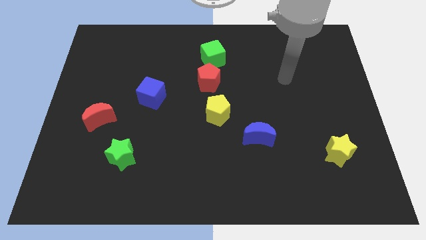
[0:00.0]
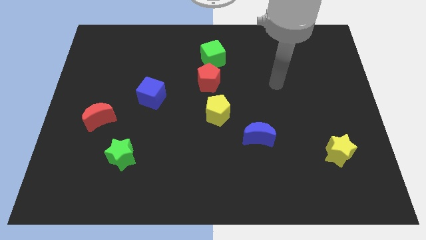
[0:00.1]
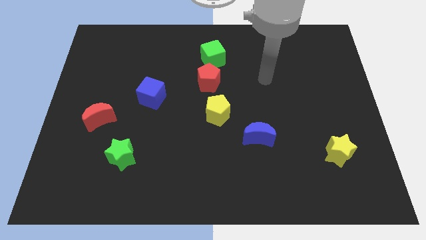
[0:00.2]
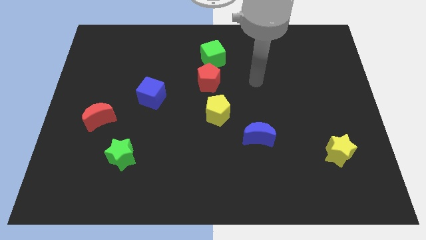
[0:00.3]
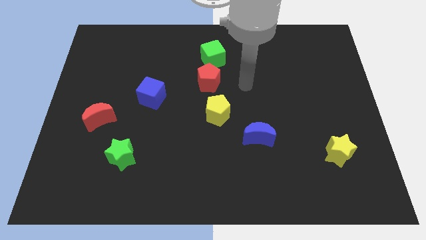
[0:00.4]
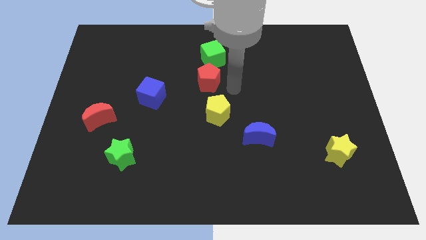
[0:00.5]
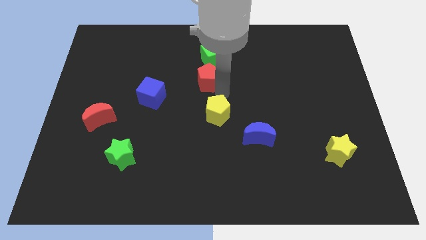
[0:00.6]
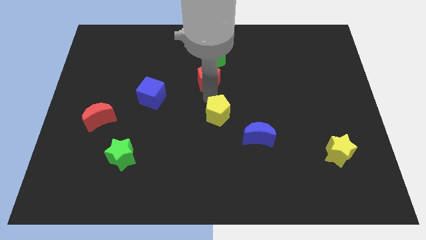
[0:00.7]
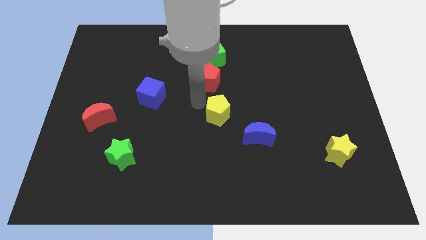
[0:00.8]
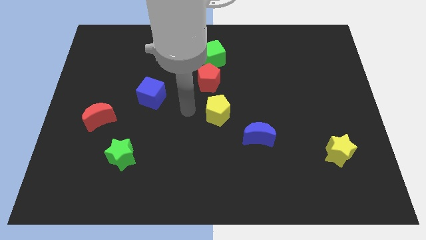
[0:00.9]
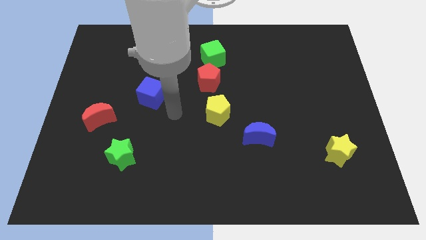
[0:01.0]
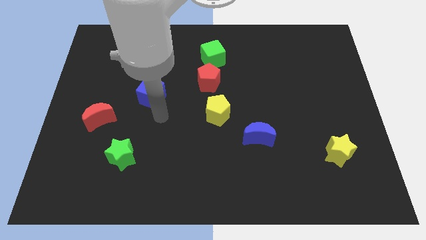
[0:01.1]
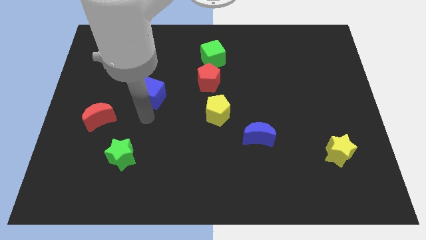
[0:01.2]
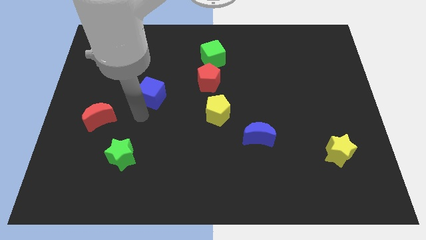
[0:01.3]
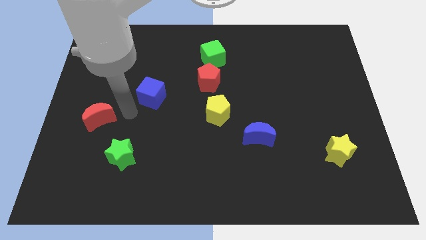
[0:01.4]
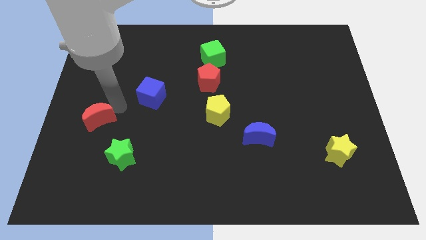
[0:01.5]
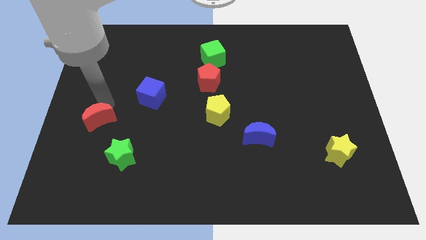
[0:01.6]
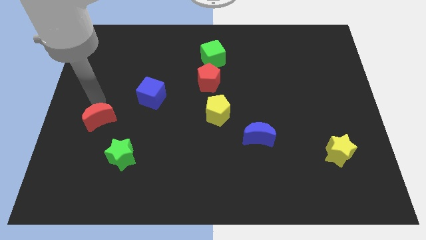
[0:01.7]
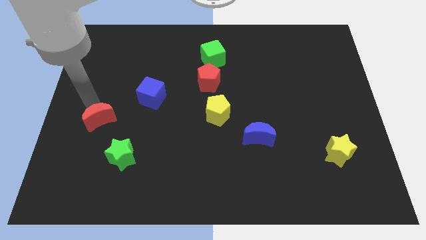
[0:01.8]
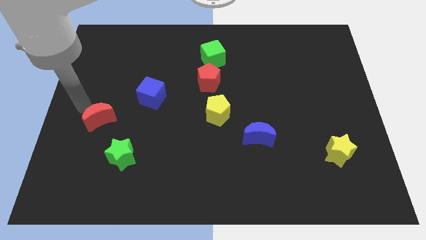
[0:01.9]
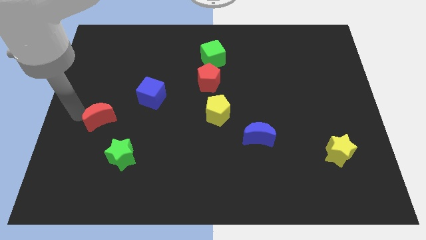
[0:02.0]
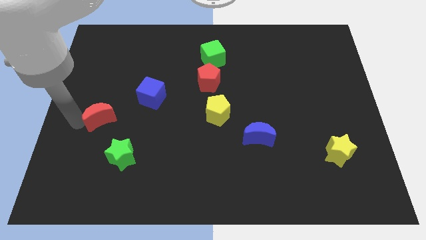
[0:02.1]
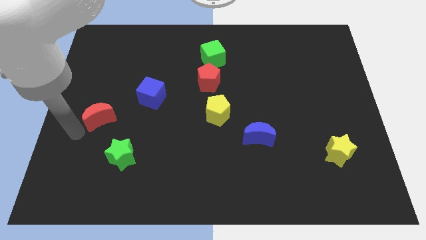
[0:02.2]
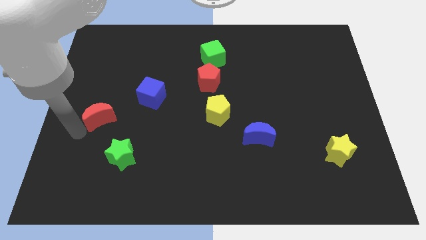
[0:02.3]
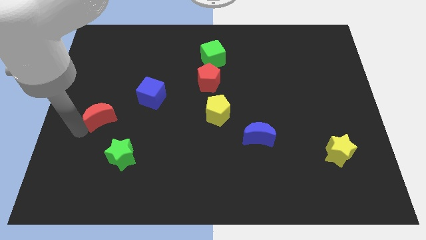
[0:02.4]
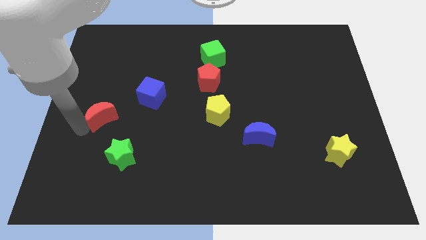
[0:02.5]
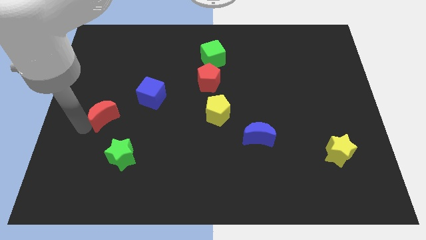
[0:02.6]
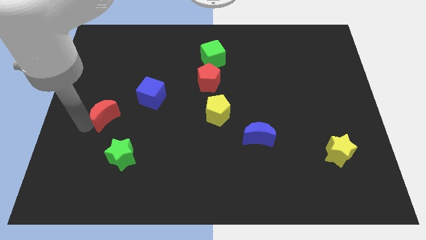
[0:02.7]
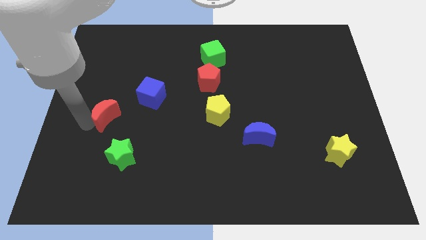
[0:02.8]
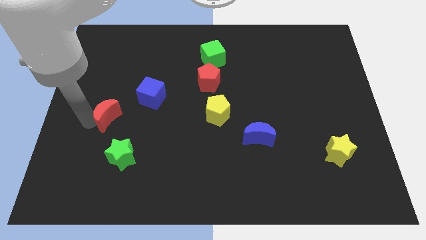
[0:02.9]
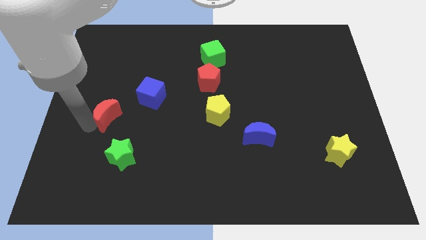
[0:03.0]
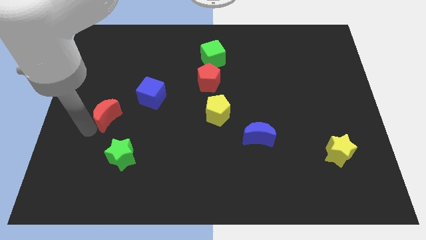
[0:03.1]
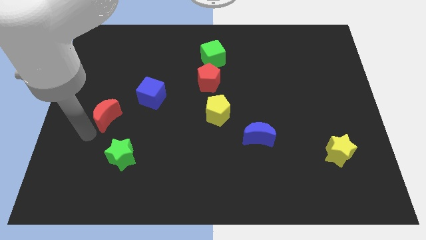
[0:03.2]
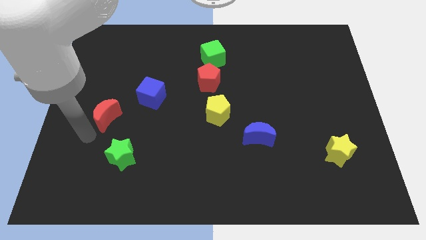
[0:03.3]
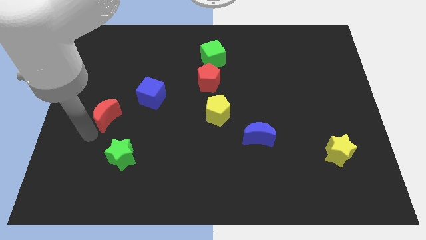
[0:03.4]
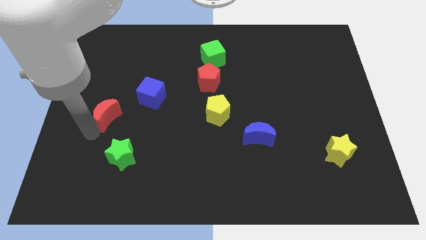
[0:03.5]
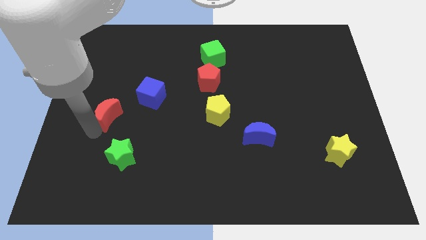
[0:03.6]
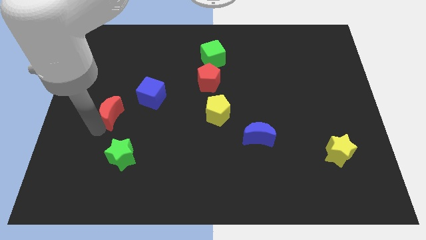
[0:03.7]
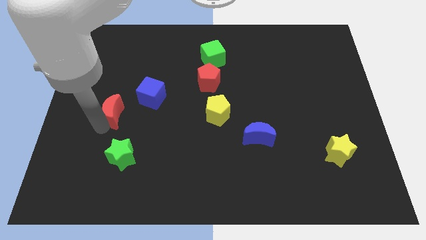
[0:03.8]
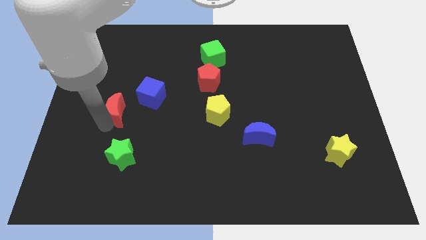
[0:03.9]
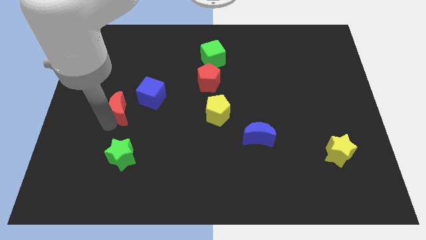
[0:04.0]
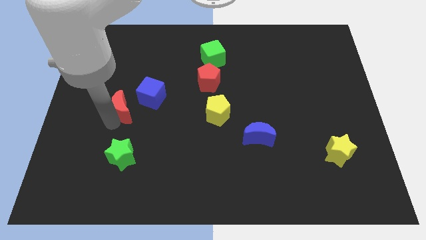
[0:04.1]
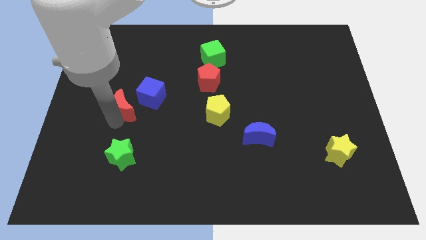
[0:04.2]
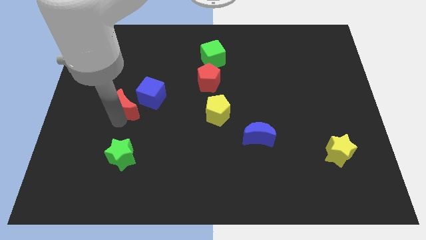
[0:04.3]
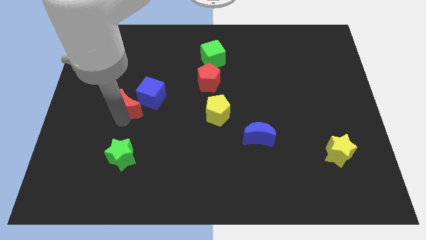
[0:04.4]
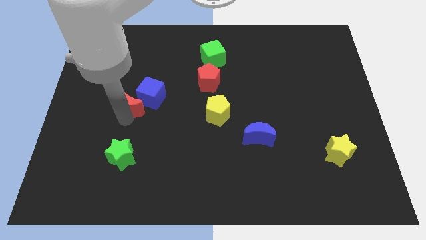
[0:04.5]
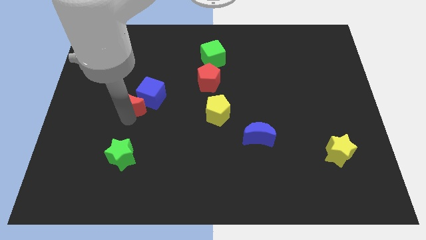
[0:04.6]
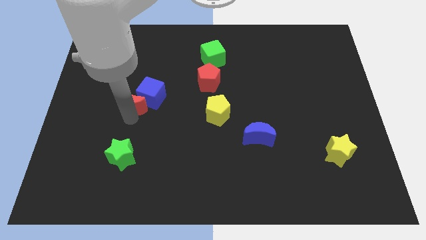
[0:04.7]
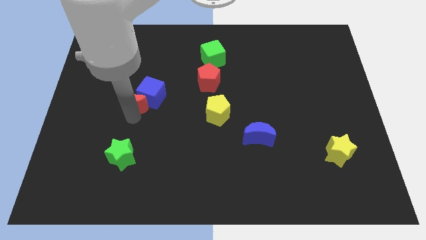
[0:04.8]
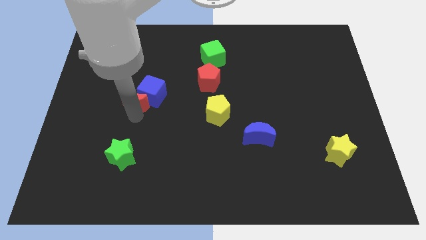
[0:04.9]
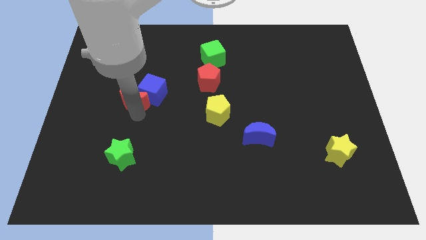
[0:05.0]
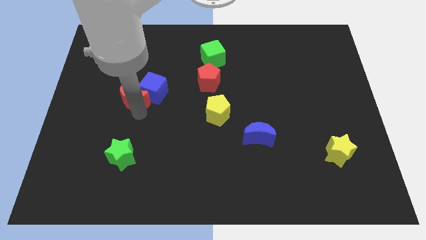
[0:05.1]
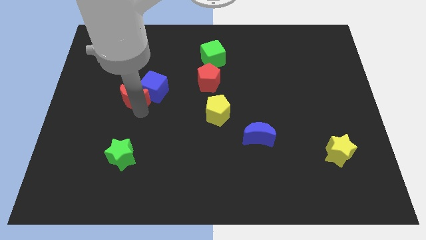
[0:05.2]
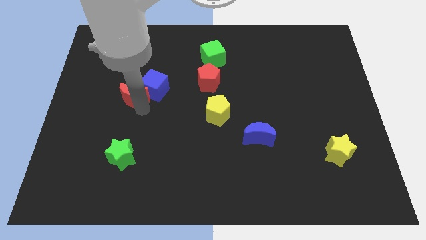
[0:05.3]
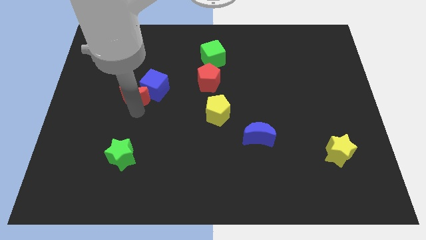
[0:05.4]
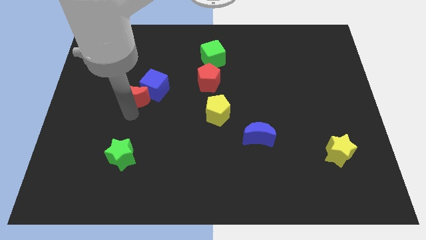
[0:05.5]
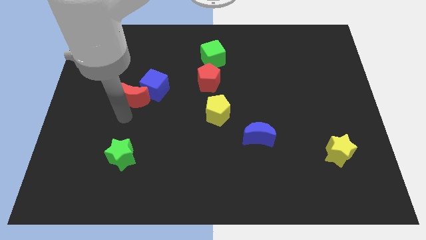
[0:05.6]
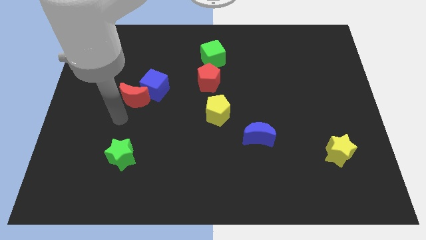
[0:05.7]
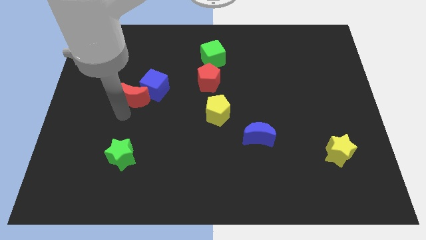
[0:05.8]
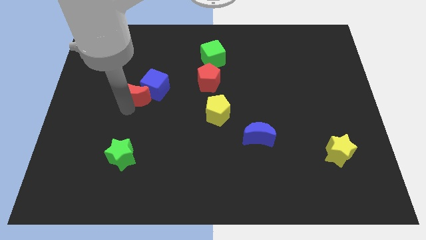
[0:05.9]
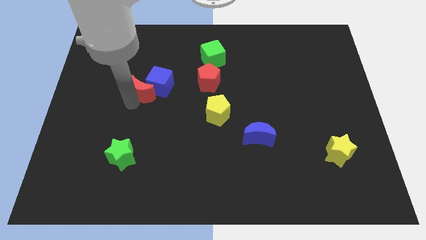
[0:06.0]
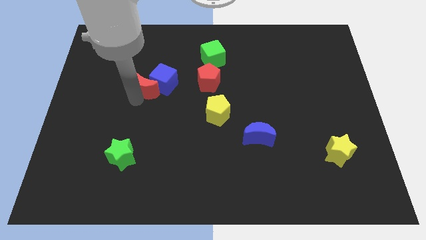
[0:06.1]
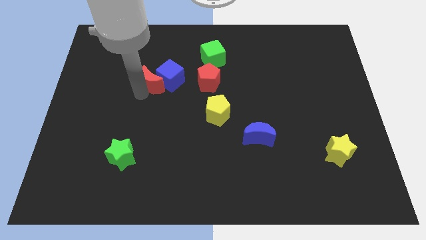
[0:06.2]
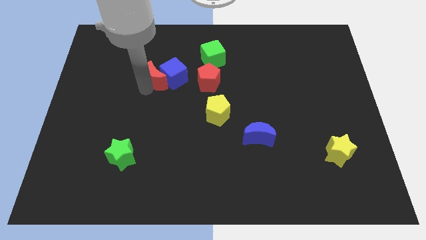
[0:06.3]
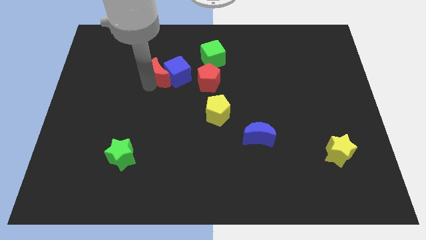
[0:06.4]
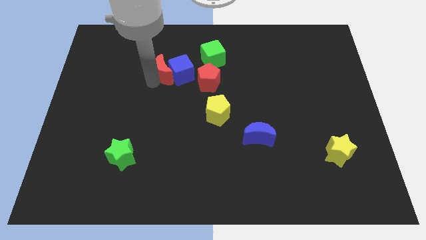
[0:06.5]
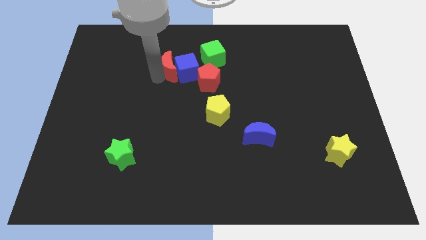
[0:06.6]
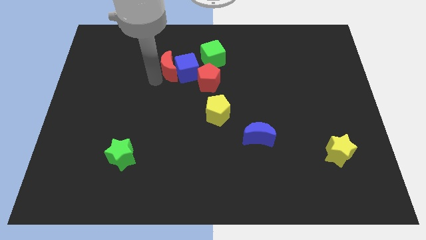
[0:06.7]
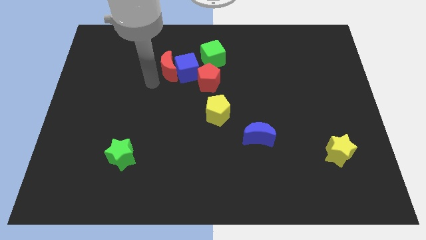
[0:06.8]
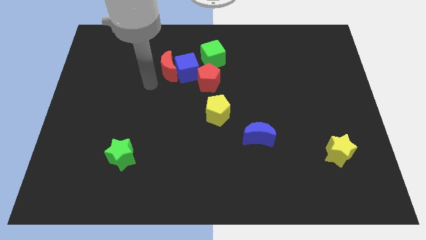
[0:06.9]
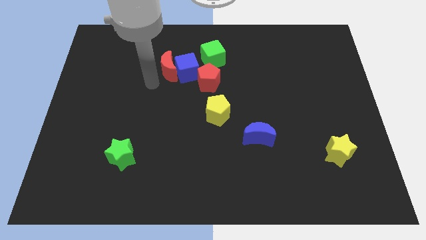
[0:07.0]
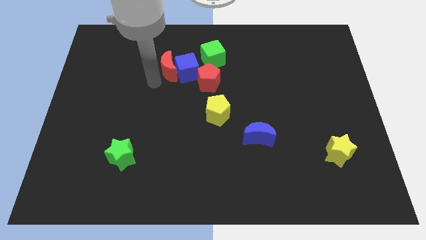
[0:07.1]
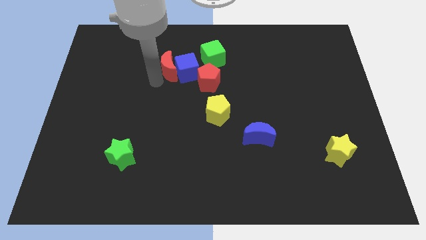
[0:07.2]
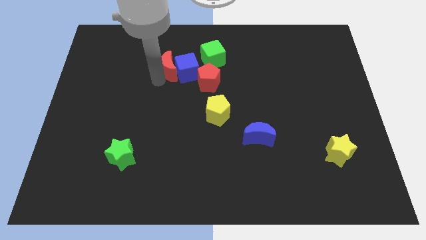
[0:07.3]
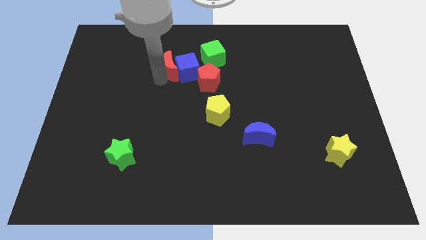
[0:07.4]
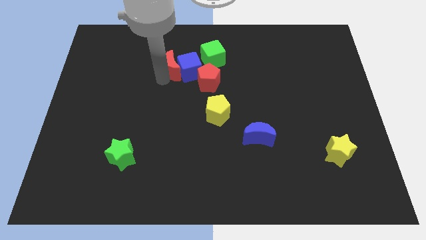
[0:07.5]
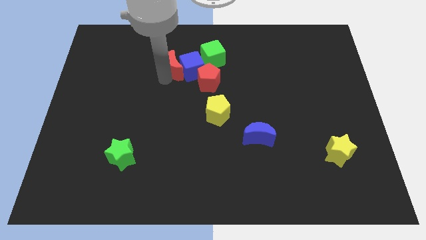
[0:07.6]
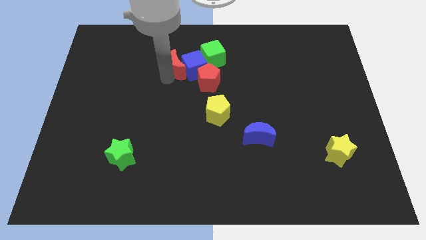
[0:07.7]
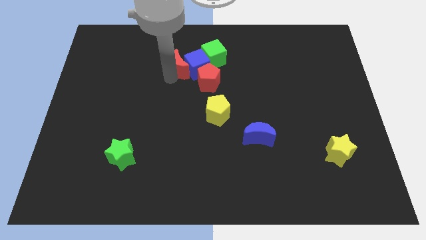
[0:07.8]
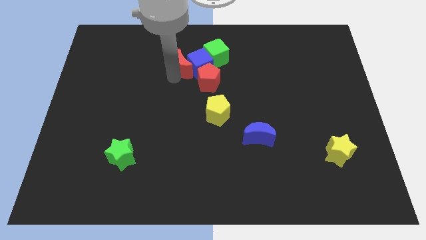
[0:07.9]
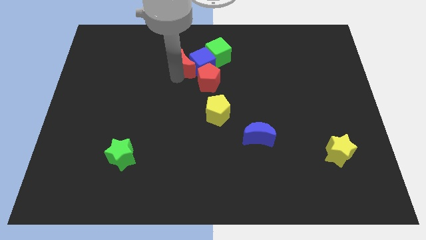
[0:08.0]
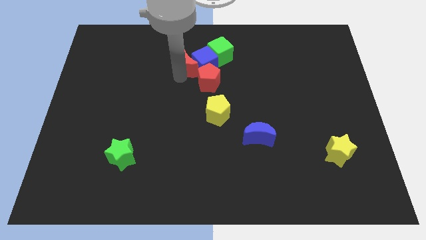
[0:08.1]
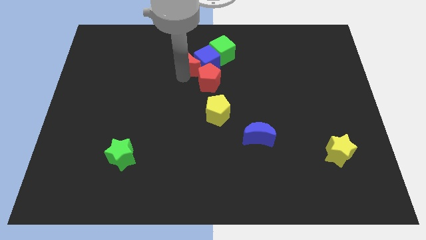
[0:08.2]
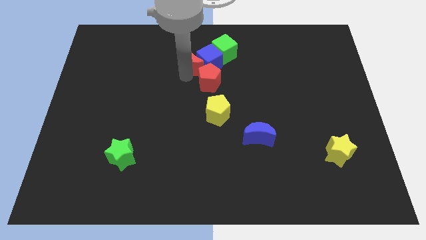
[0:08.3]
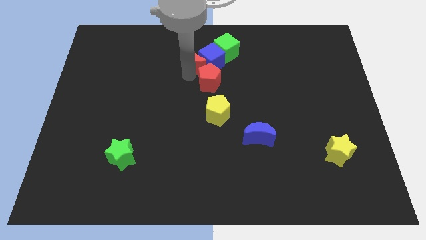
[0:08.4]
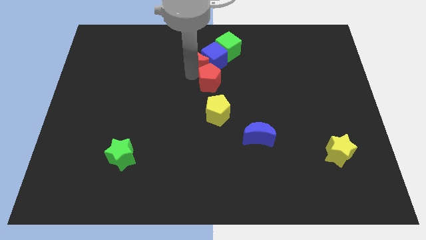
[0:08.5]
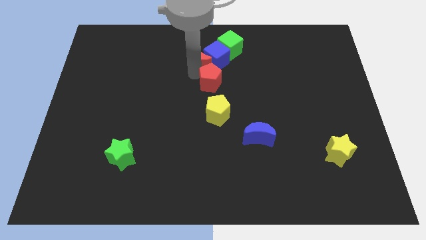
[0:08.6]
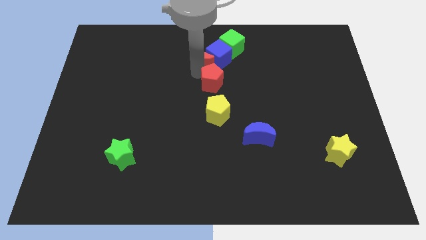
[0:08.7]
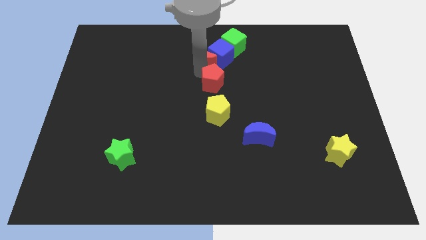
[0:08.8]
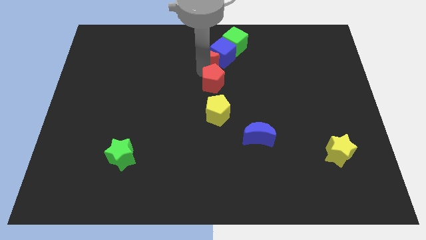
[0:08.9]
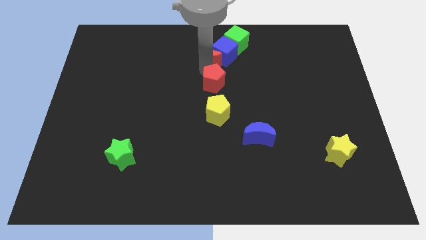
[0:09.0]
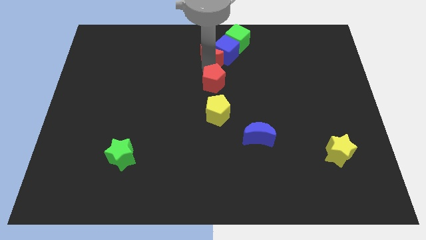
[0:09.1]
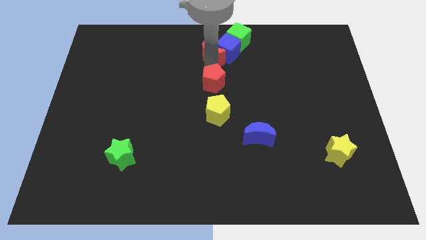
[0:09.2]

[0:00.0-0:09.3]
slide the red moon to the top side
